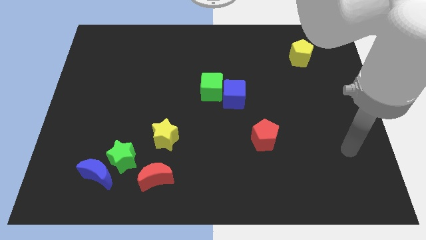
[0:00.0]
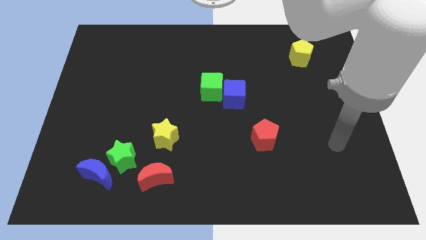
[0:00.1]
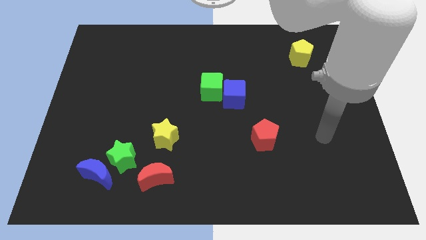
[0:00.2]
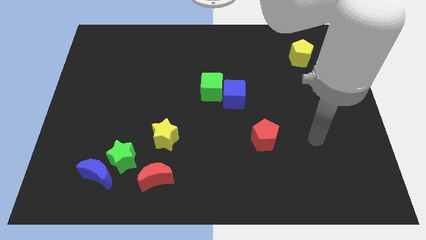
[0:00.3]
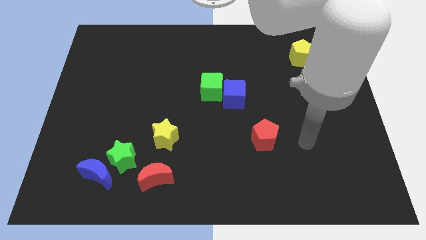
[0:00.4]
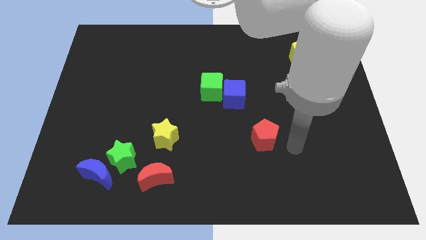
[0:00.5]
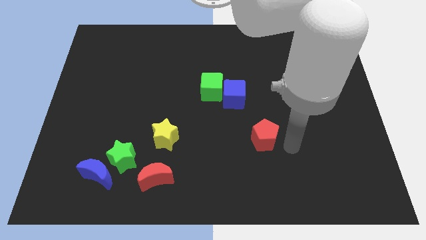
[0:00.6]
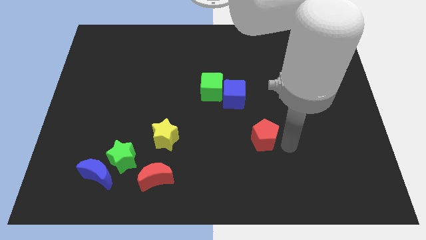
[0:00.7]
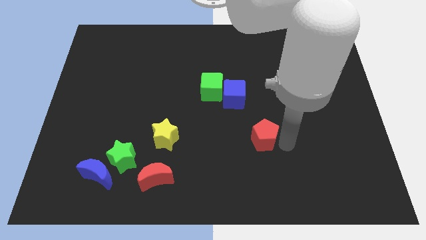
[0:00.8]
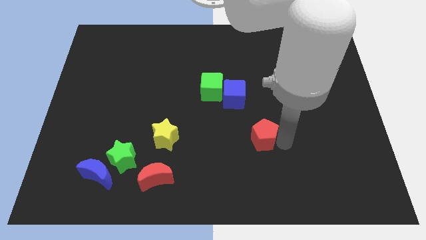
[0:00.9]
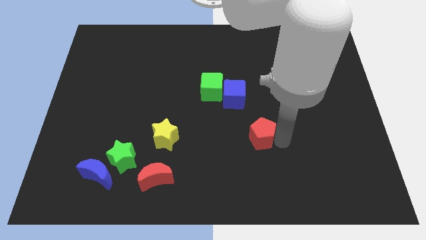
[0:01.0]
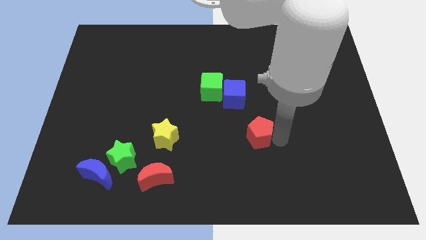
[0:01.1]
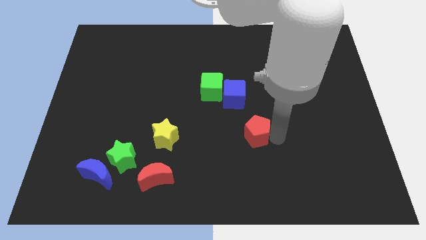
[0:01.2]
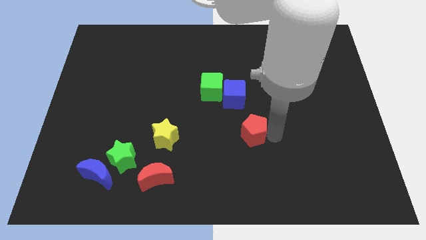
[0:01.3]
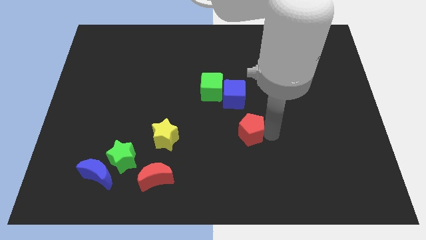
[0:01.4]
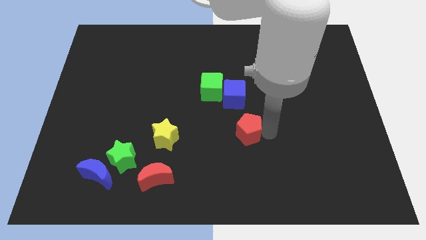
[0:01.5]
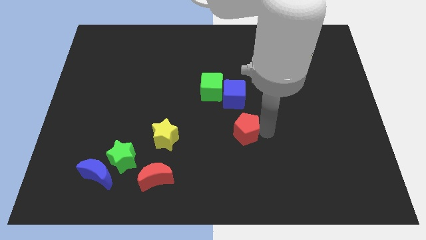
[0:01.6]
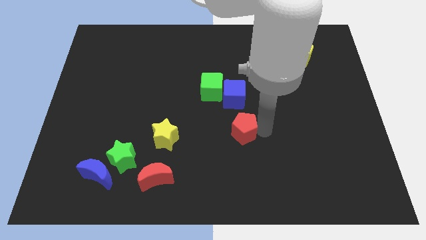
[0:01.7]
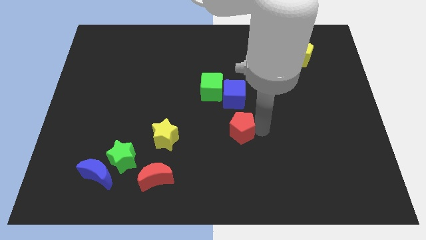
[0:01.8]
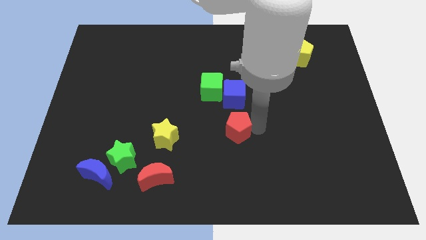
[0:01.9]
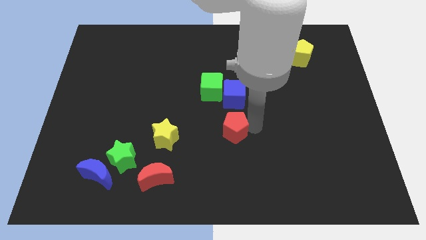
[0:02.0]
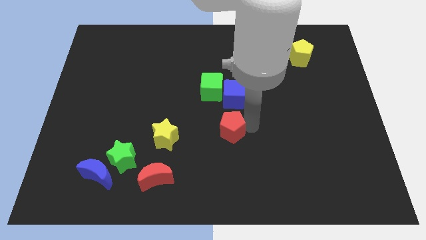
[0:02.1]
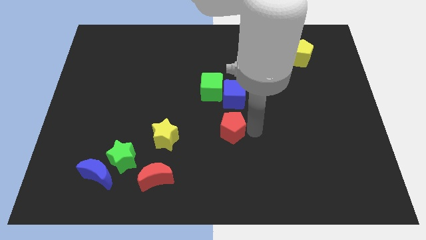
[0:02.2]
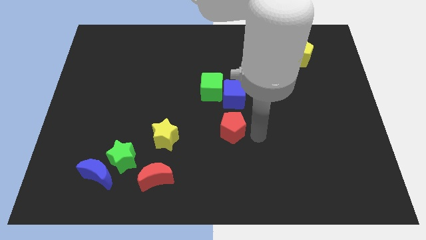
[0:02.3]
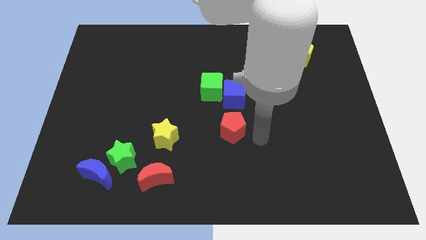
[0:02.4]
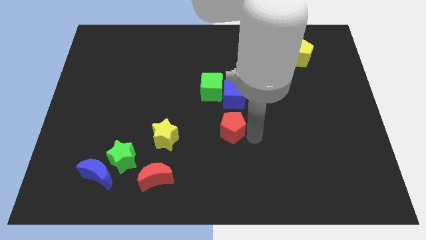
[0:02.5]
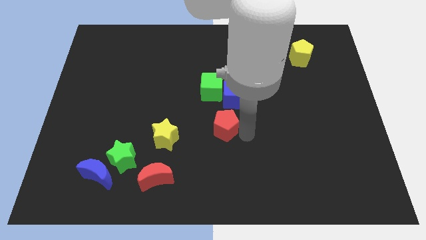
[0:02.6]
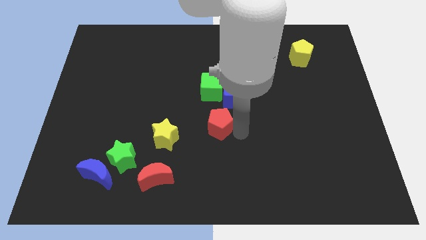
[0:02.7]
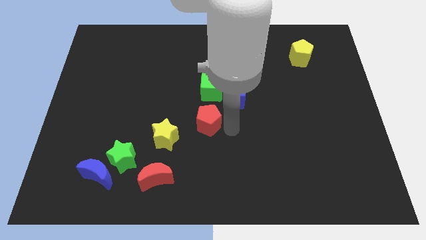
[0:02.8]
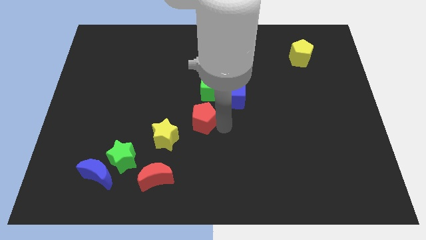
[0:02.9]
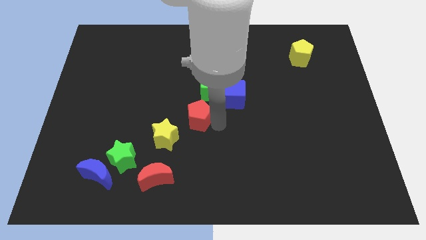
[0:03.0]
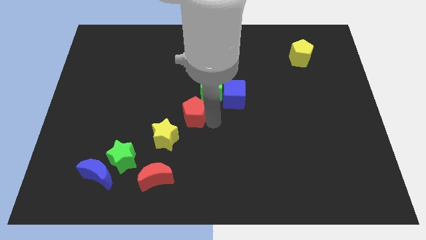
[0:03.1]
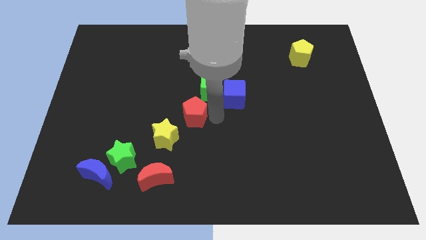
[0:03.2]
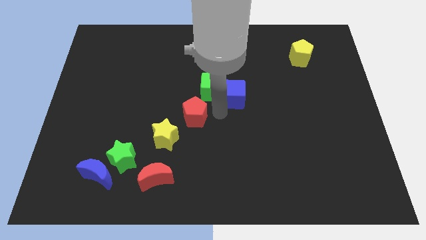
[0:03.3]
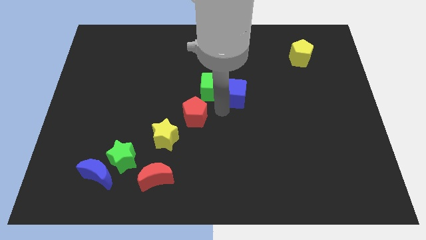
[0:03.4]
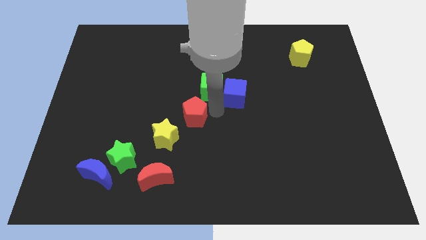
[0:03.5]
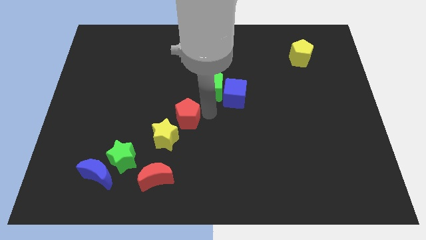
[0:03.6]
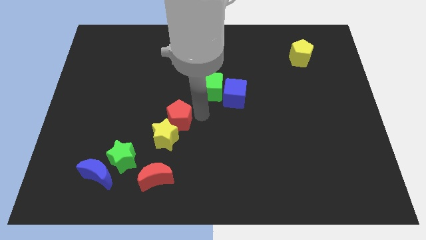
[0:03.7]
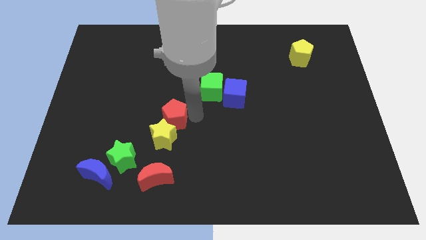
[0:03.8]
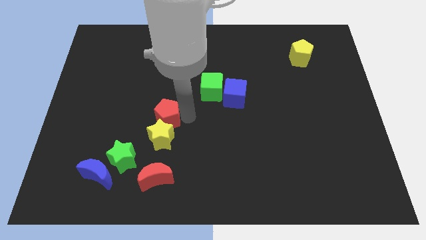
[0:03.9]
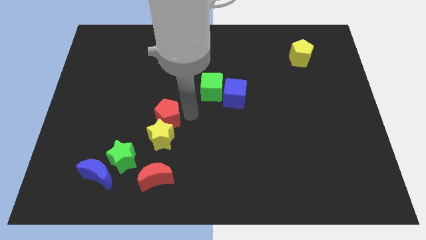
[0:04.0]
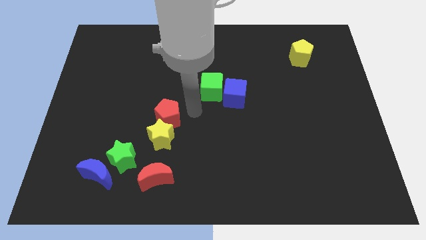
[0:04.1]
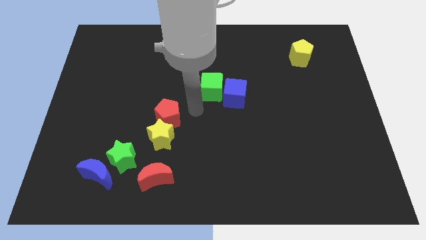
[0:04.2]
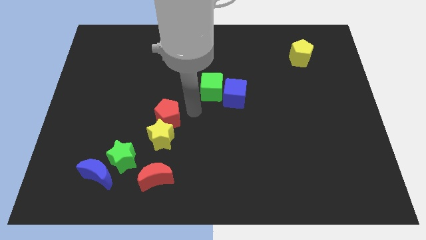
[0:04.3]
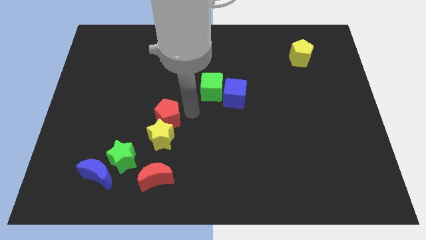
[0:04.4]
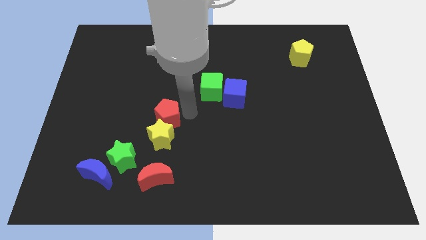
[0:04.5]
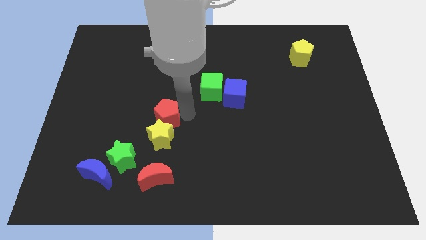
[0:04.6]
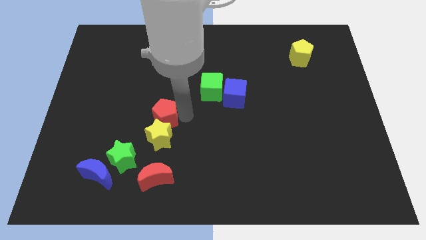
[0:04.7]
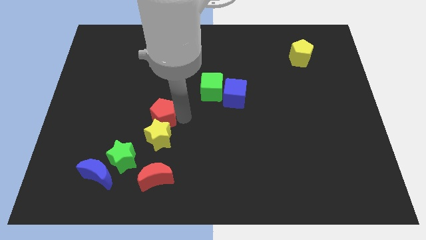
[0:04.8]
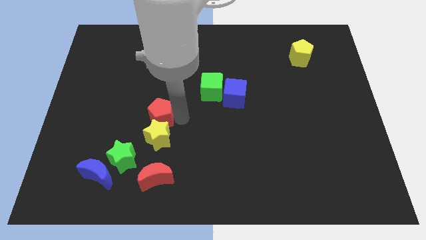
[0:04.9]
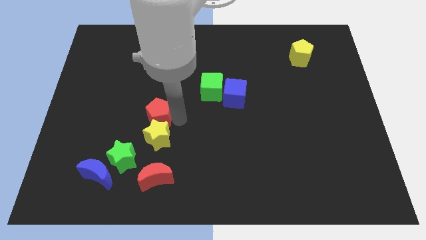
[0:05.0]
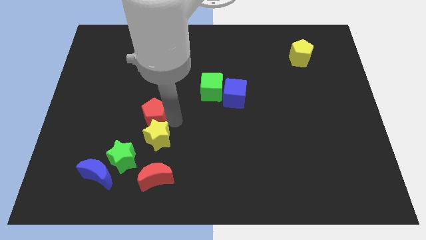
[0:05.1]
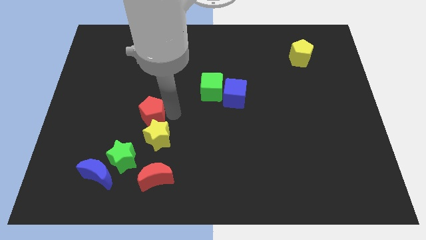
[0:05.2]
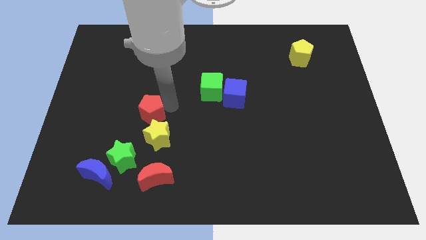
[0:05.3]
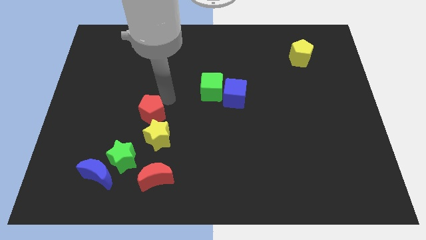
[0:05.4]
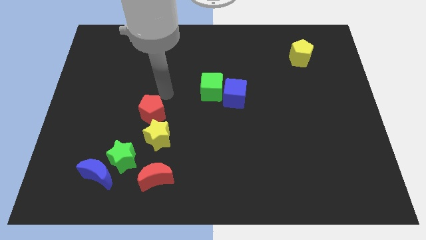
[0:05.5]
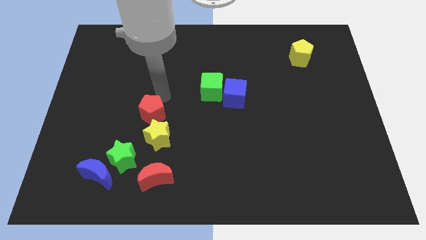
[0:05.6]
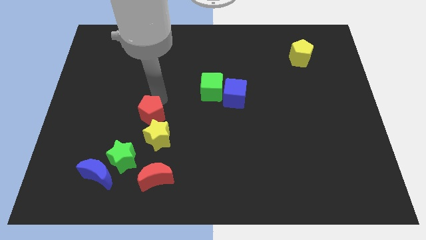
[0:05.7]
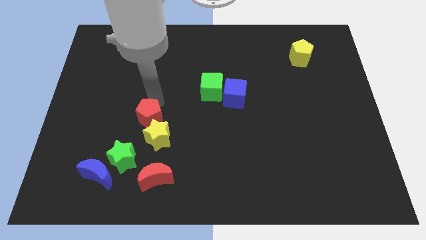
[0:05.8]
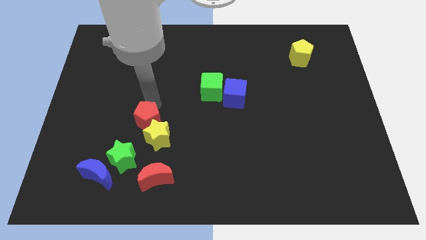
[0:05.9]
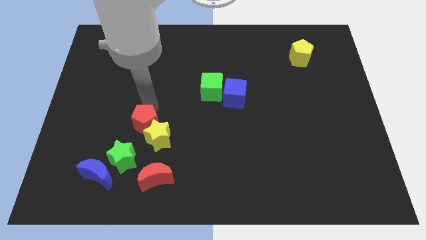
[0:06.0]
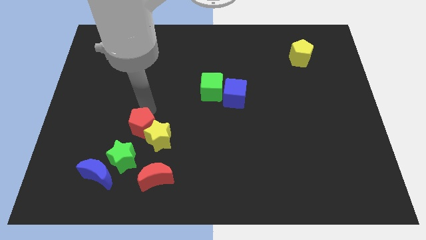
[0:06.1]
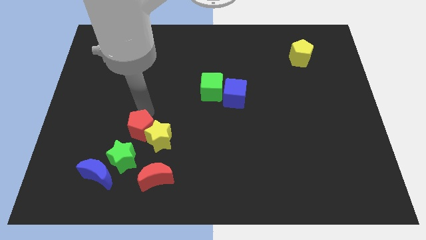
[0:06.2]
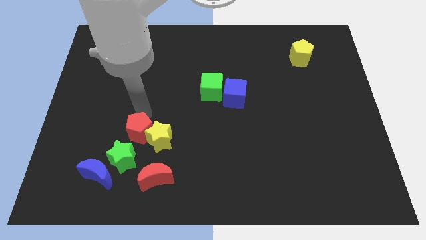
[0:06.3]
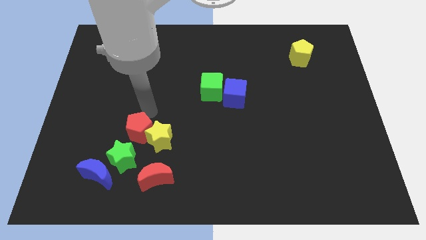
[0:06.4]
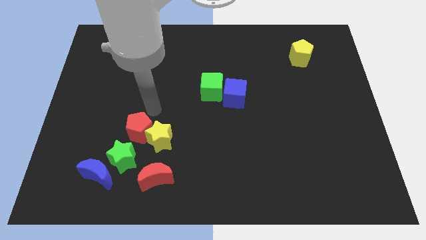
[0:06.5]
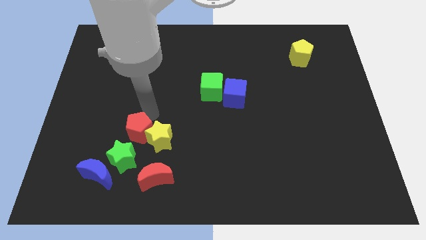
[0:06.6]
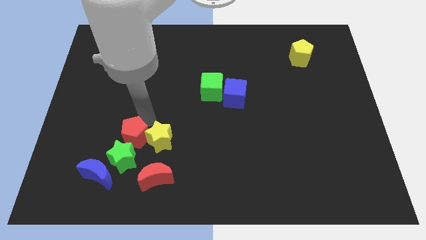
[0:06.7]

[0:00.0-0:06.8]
put the red pentagon to the top right side of the blue moon
